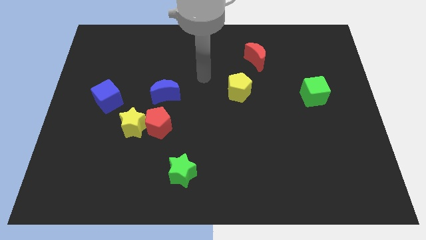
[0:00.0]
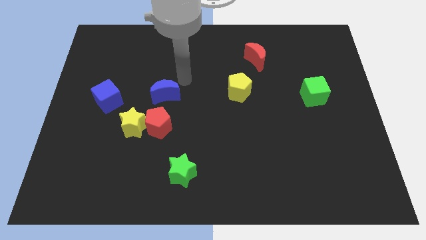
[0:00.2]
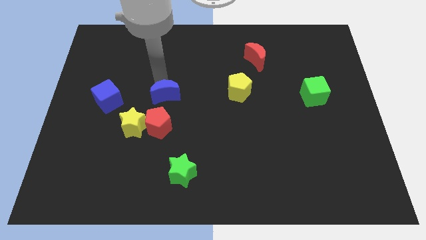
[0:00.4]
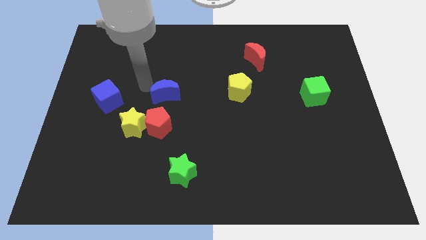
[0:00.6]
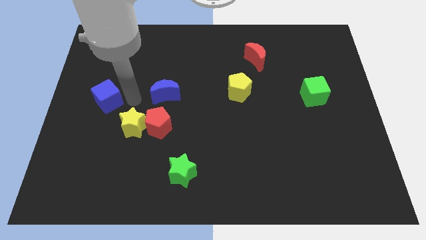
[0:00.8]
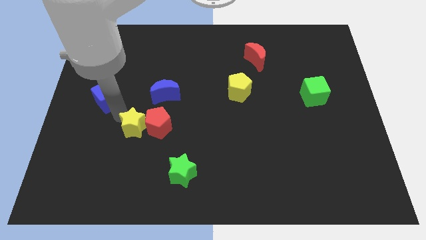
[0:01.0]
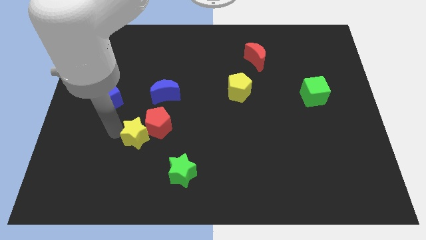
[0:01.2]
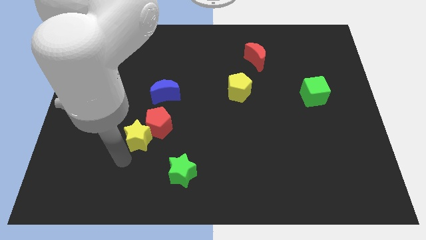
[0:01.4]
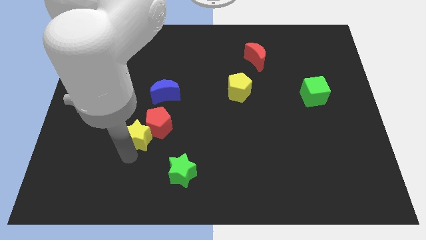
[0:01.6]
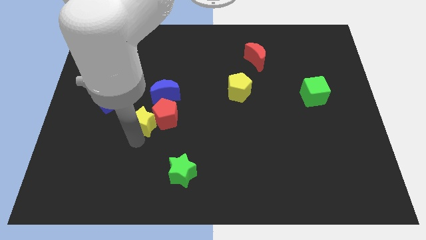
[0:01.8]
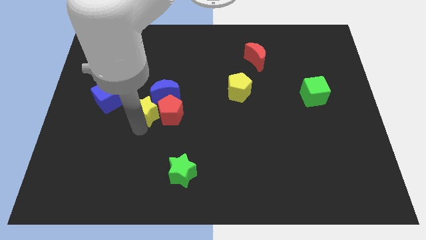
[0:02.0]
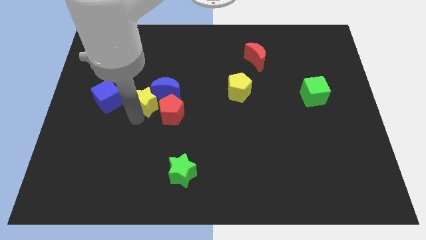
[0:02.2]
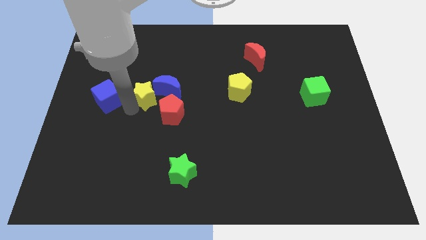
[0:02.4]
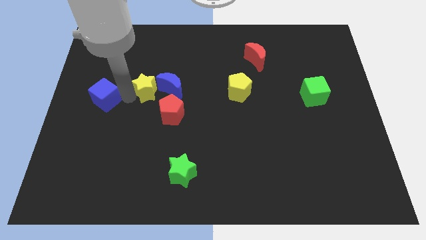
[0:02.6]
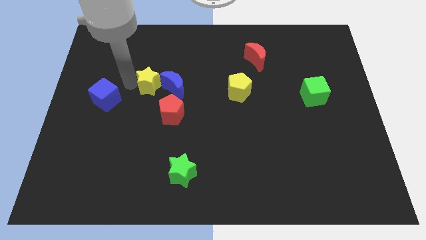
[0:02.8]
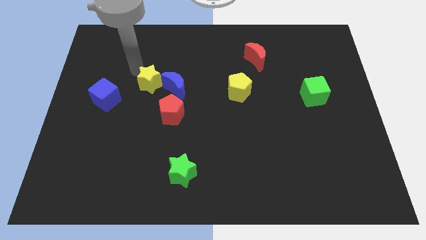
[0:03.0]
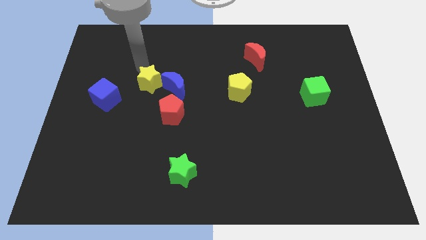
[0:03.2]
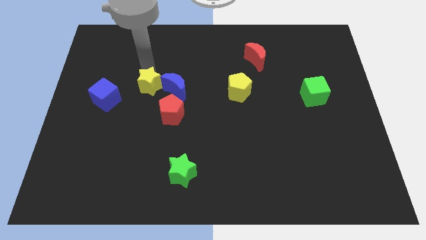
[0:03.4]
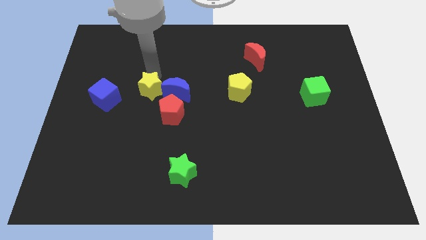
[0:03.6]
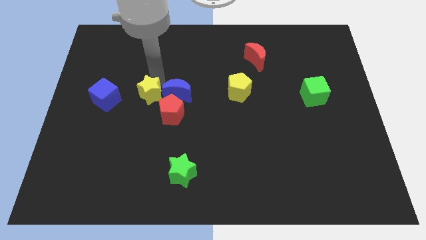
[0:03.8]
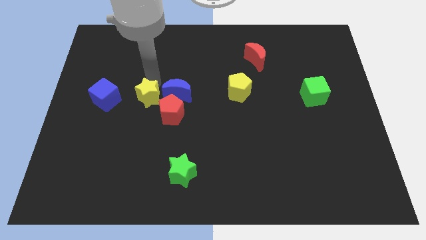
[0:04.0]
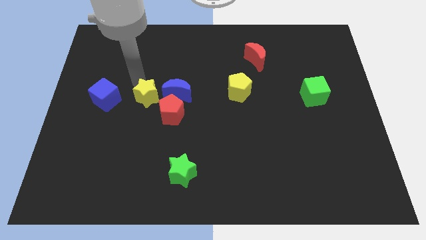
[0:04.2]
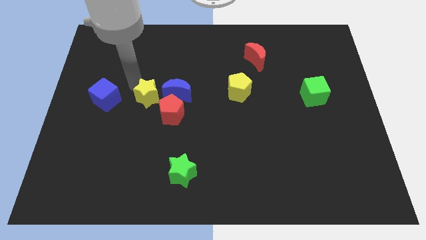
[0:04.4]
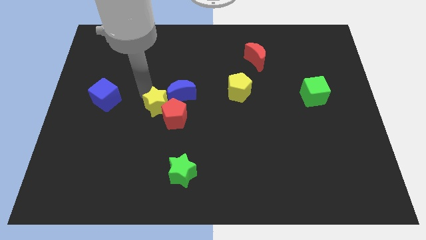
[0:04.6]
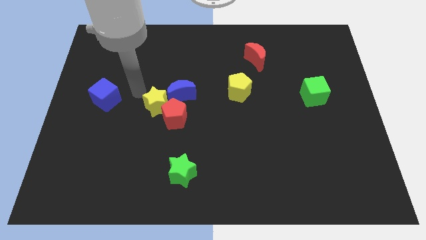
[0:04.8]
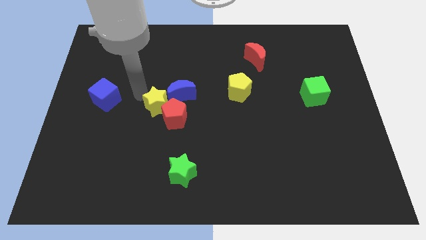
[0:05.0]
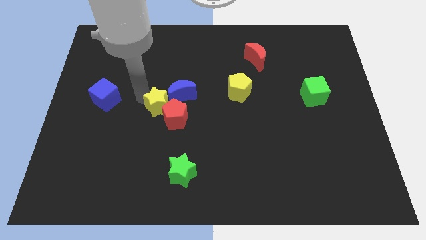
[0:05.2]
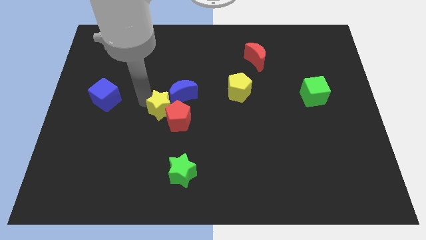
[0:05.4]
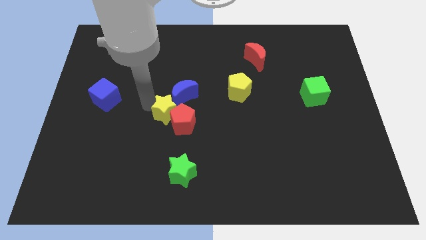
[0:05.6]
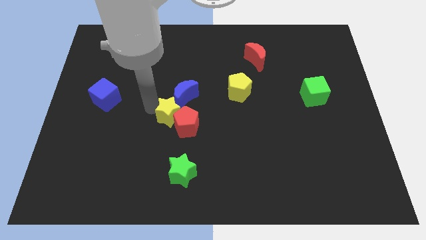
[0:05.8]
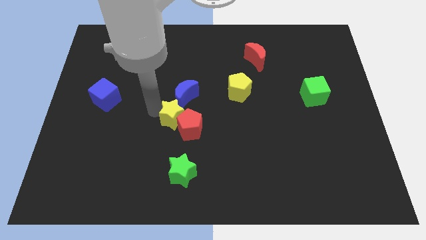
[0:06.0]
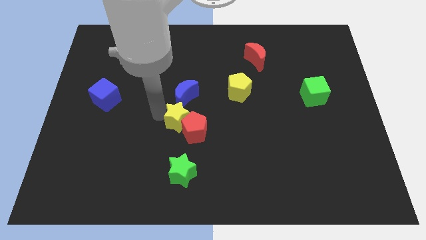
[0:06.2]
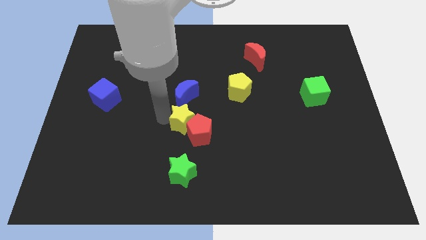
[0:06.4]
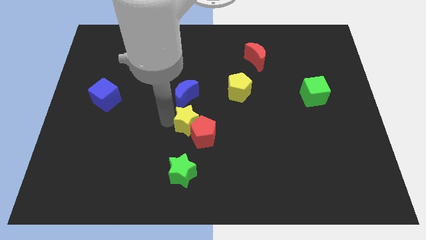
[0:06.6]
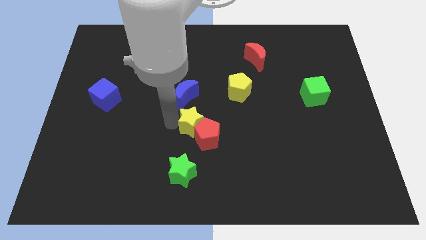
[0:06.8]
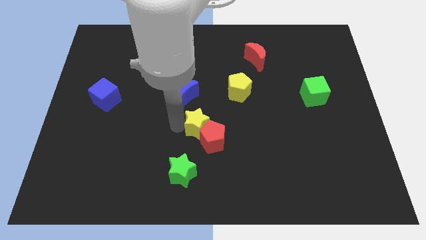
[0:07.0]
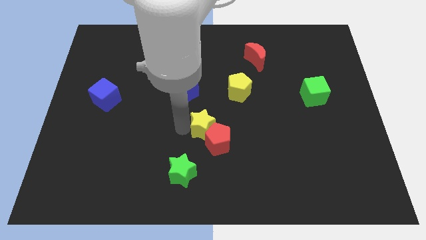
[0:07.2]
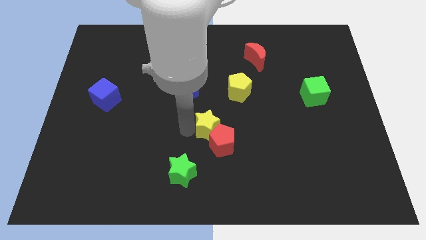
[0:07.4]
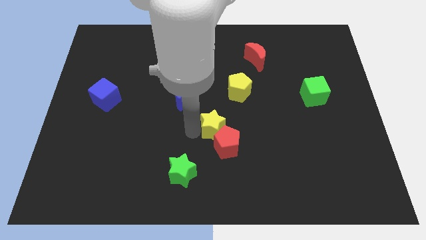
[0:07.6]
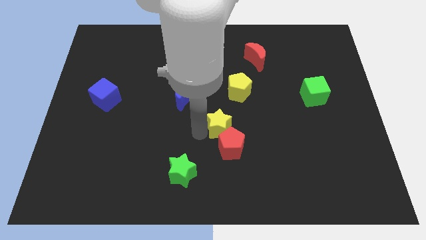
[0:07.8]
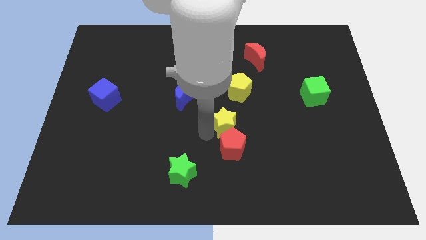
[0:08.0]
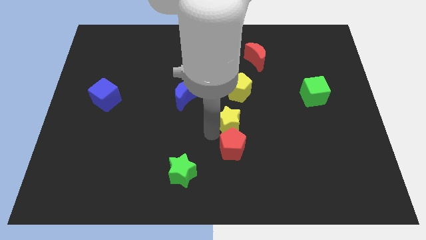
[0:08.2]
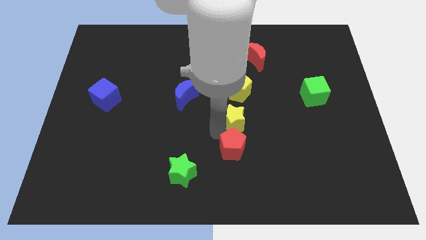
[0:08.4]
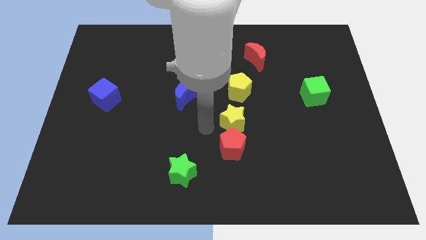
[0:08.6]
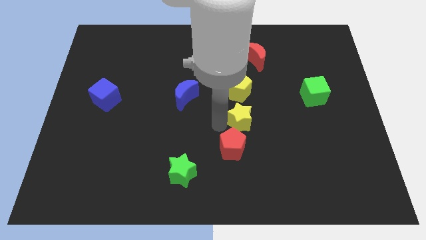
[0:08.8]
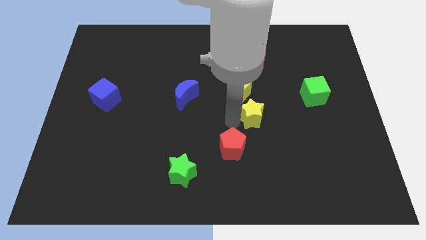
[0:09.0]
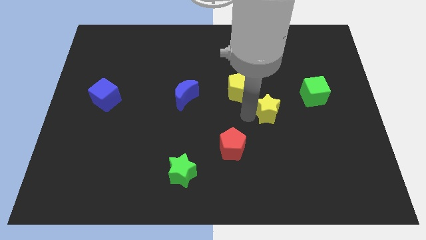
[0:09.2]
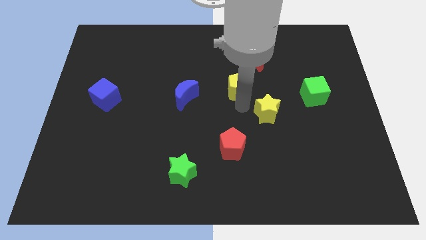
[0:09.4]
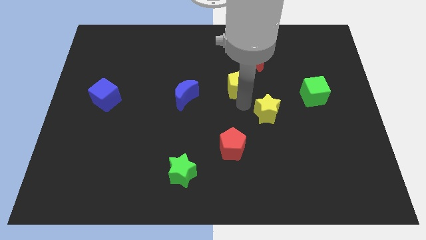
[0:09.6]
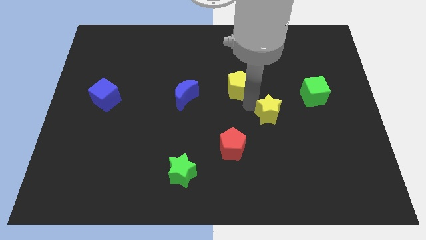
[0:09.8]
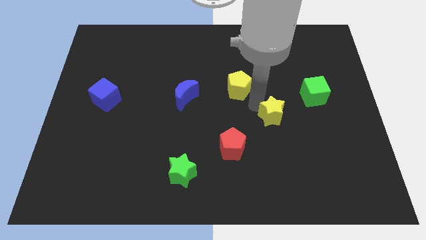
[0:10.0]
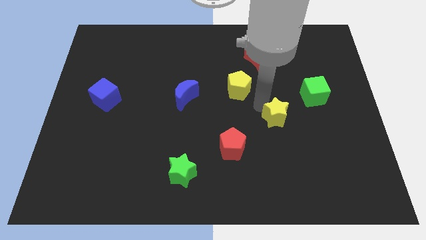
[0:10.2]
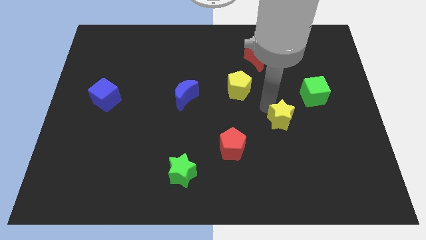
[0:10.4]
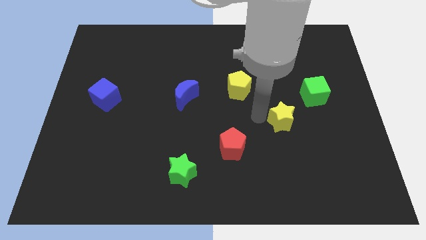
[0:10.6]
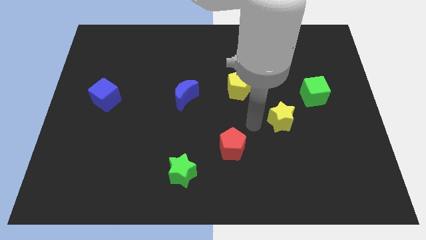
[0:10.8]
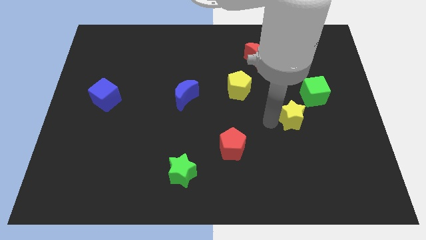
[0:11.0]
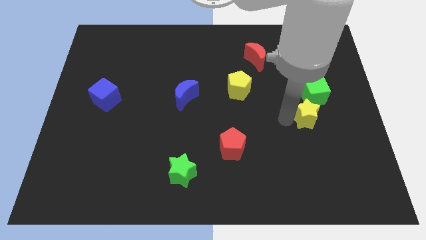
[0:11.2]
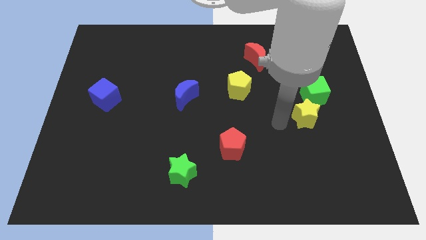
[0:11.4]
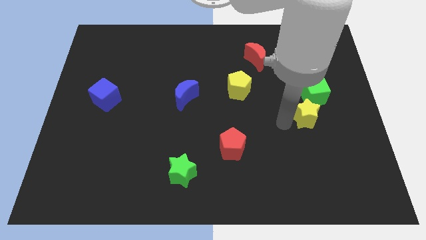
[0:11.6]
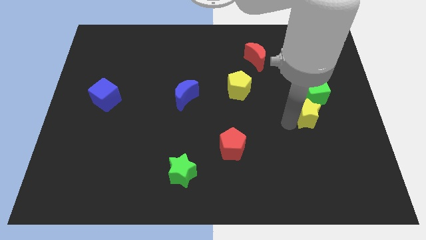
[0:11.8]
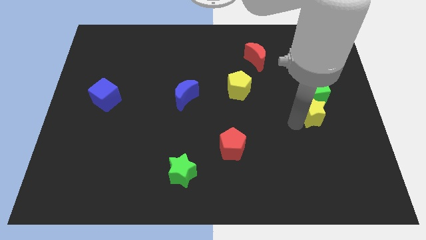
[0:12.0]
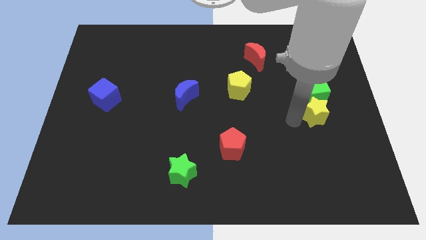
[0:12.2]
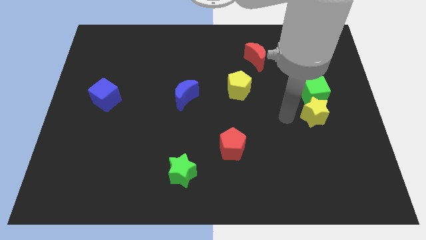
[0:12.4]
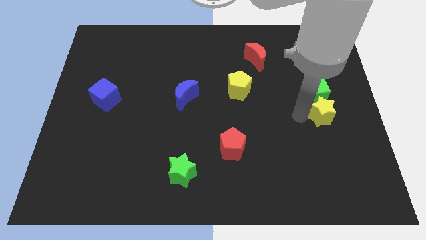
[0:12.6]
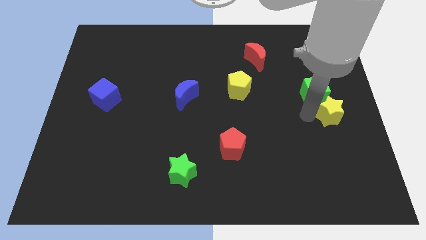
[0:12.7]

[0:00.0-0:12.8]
put the yellow star to the right side
